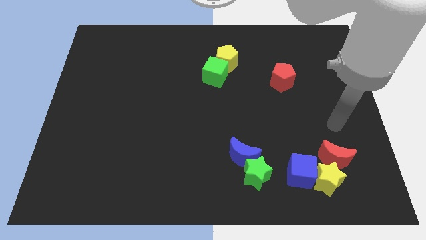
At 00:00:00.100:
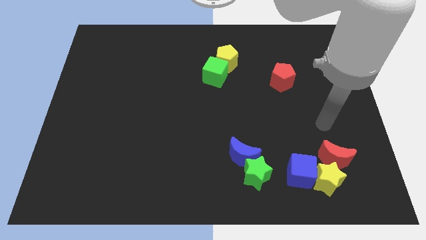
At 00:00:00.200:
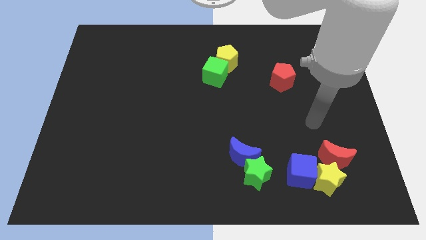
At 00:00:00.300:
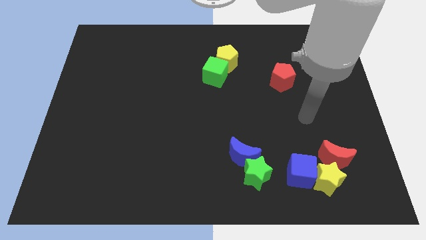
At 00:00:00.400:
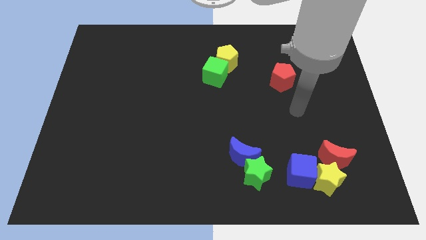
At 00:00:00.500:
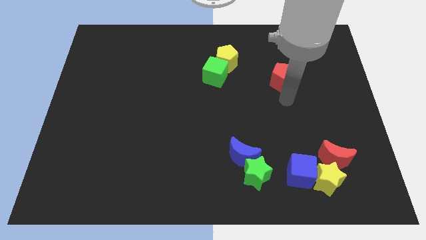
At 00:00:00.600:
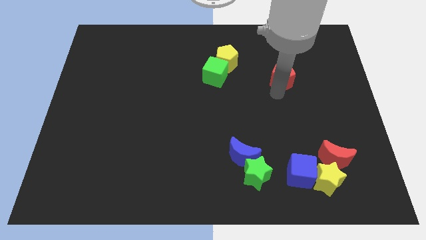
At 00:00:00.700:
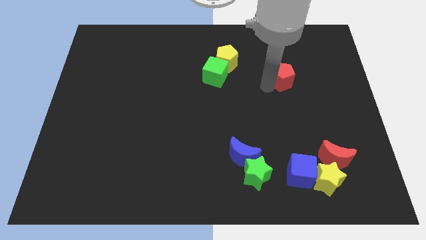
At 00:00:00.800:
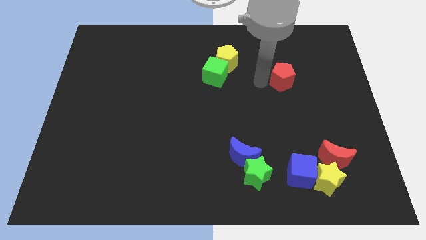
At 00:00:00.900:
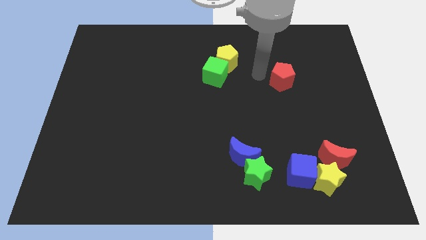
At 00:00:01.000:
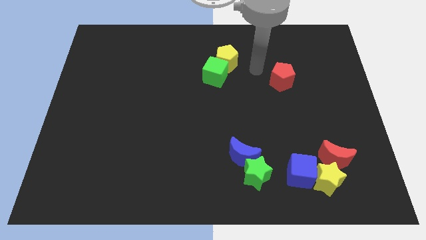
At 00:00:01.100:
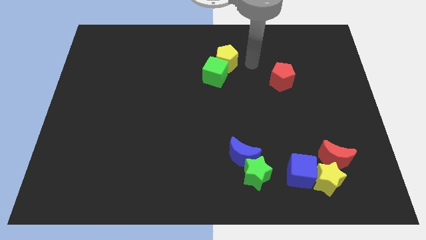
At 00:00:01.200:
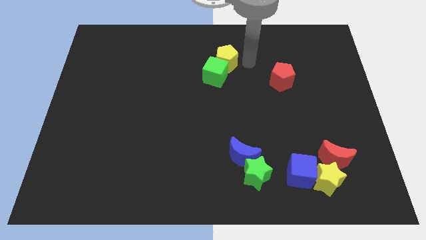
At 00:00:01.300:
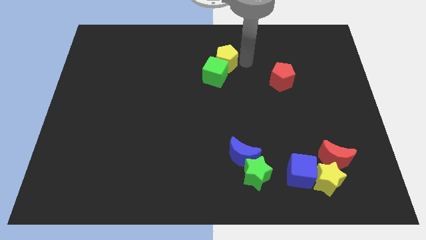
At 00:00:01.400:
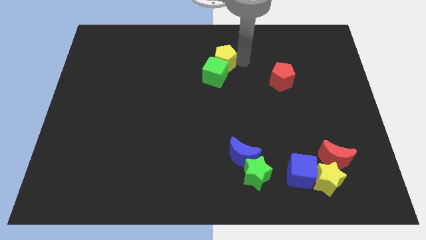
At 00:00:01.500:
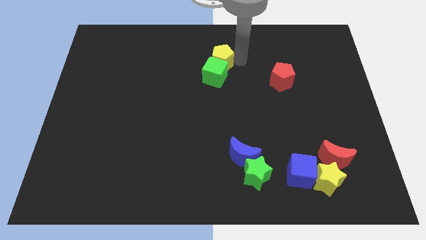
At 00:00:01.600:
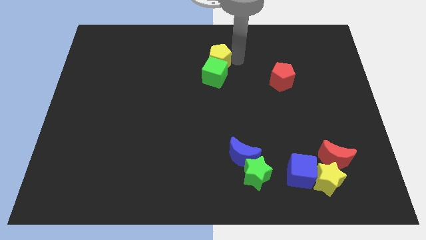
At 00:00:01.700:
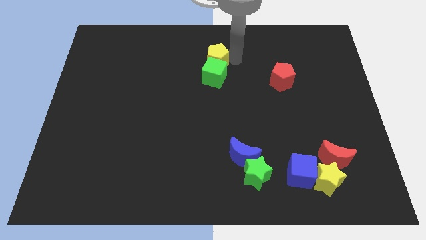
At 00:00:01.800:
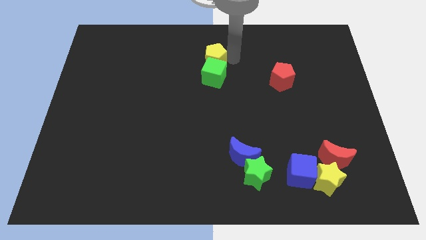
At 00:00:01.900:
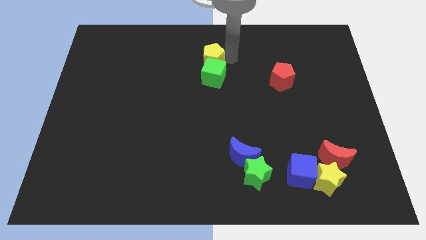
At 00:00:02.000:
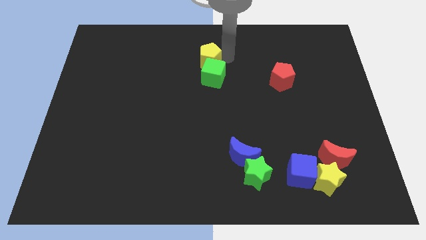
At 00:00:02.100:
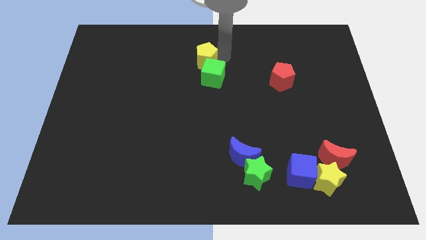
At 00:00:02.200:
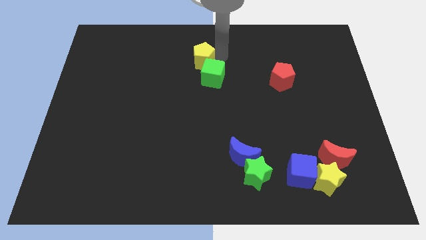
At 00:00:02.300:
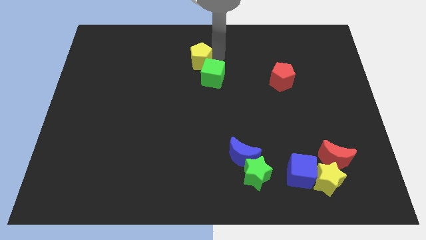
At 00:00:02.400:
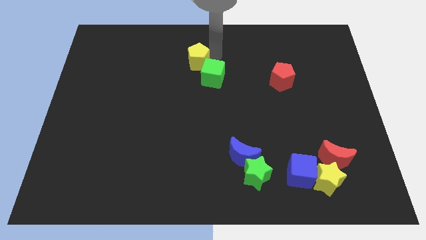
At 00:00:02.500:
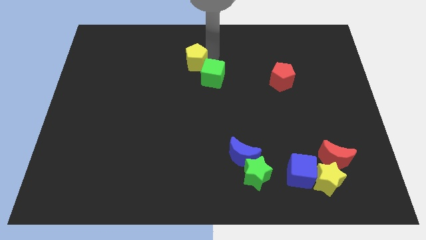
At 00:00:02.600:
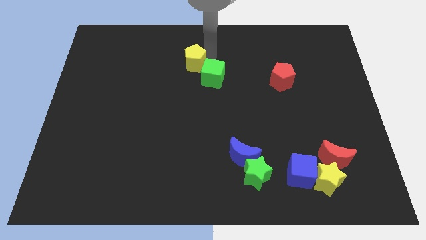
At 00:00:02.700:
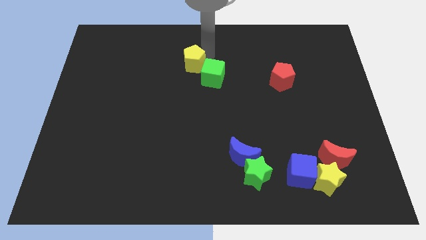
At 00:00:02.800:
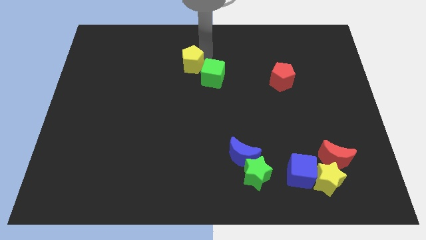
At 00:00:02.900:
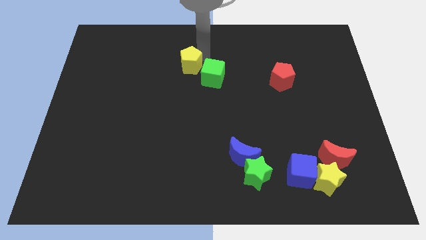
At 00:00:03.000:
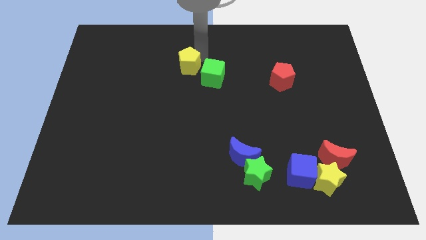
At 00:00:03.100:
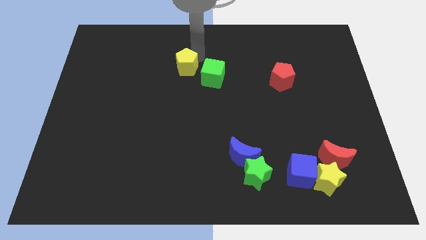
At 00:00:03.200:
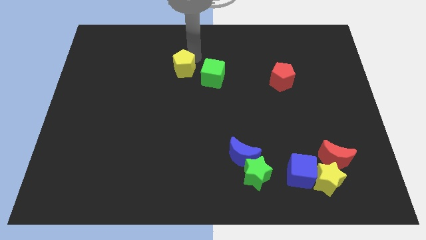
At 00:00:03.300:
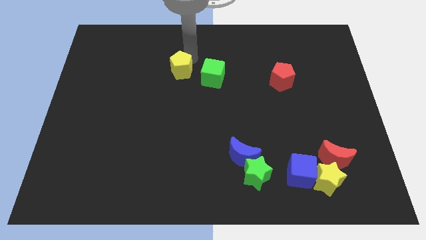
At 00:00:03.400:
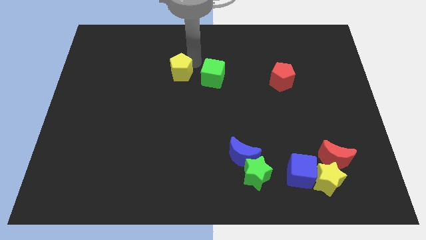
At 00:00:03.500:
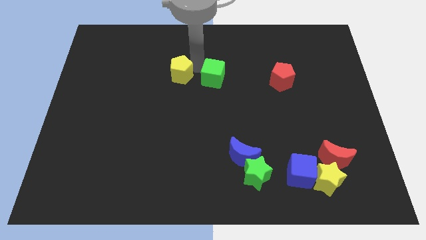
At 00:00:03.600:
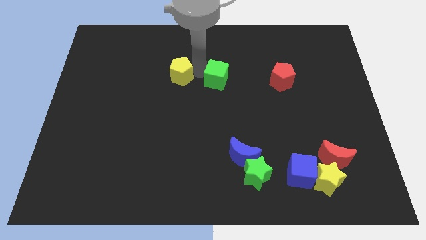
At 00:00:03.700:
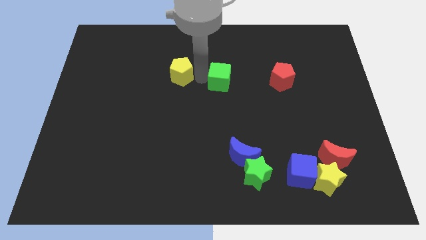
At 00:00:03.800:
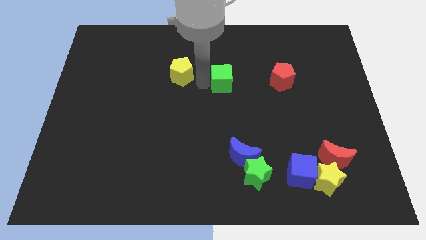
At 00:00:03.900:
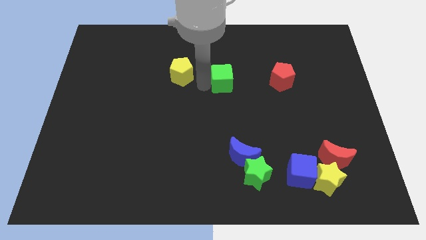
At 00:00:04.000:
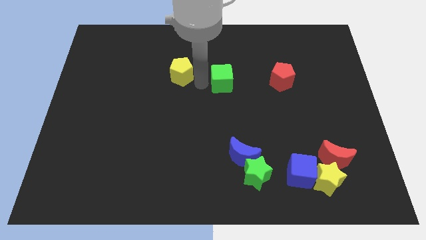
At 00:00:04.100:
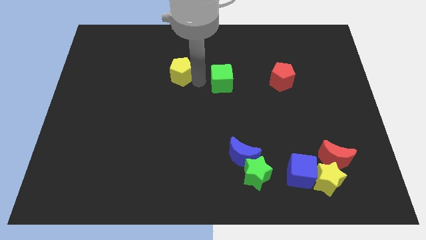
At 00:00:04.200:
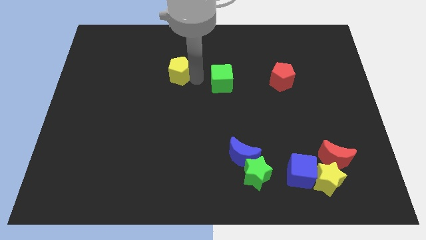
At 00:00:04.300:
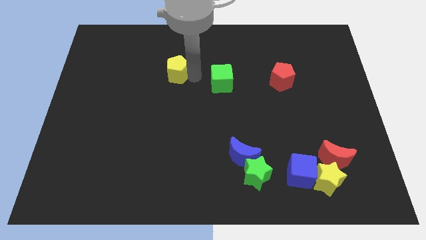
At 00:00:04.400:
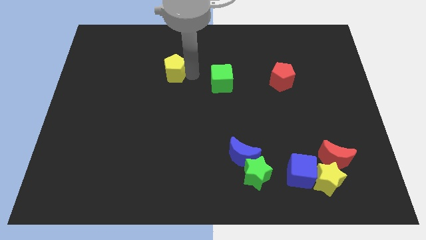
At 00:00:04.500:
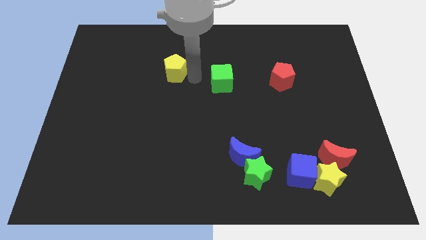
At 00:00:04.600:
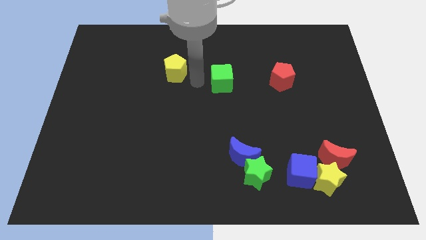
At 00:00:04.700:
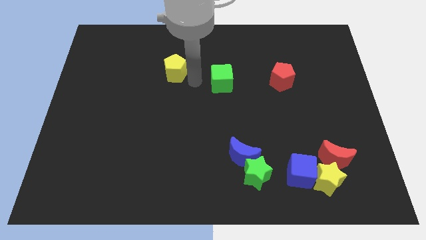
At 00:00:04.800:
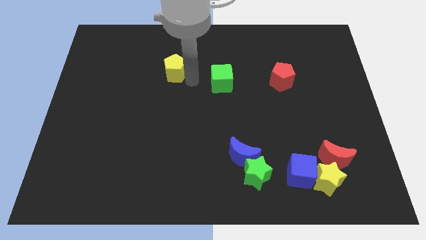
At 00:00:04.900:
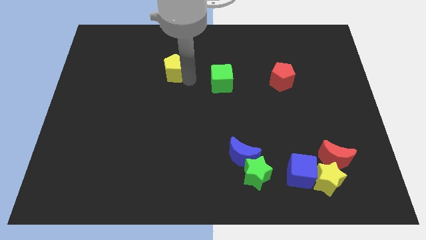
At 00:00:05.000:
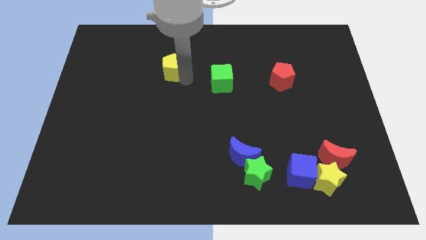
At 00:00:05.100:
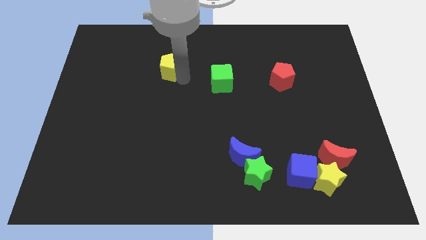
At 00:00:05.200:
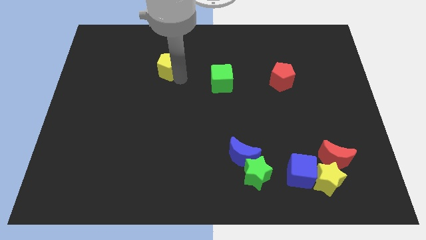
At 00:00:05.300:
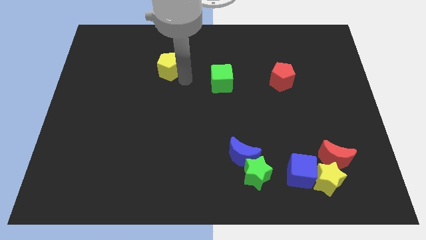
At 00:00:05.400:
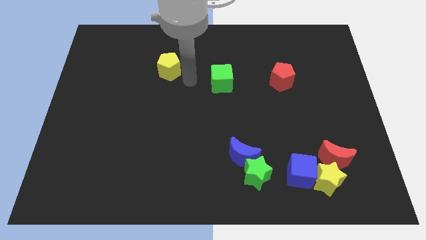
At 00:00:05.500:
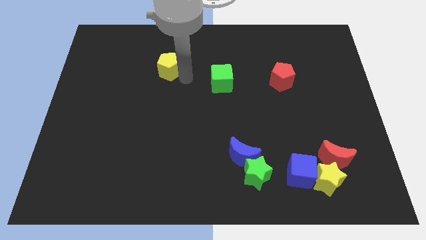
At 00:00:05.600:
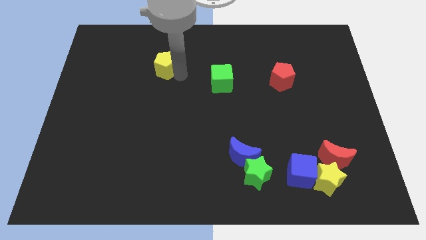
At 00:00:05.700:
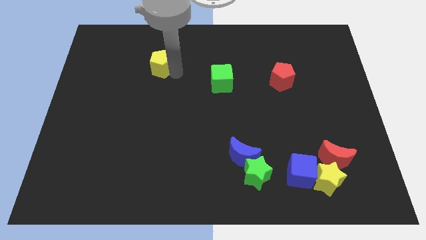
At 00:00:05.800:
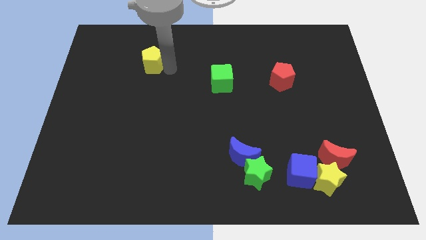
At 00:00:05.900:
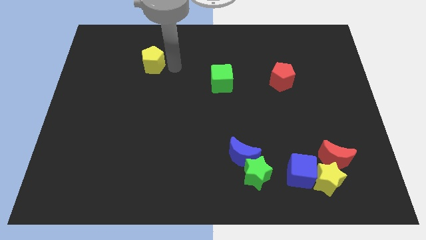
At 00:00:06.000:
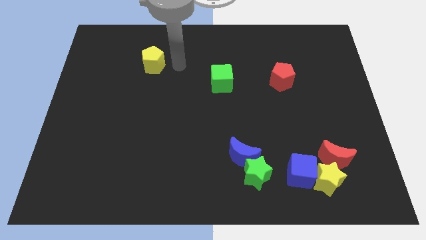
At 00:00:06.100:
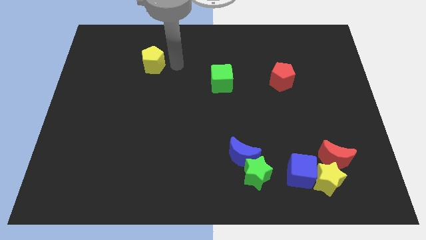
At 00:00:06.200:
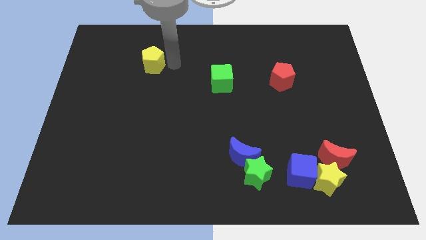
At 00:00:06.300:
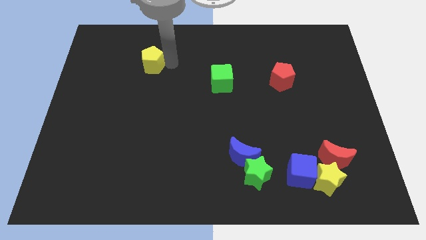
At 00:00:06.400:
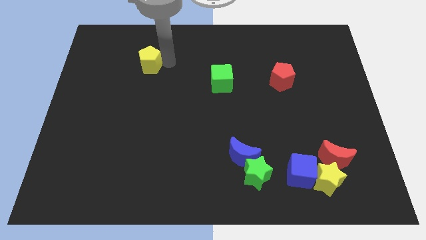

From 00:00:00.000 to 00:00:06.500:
move the yellow pentagon to the left

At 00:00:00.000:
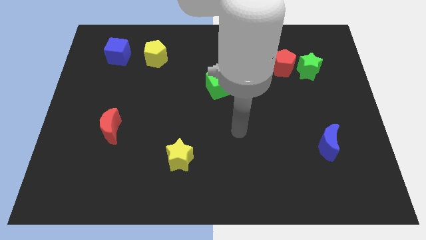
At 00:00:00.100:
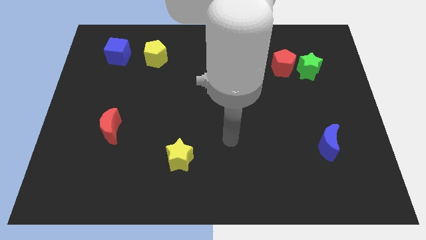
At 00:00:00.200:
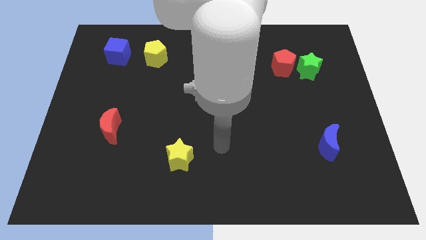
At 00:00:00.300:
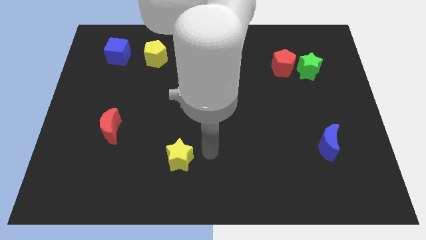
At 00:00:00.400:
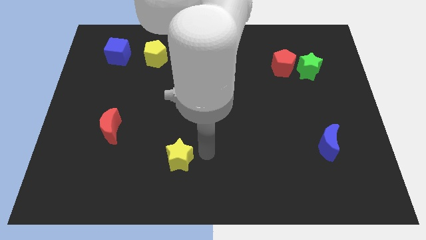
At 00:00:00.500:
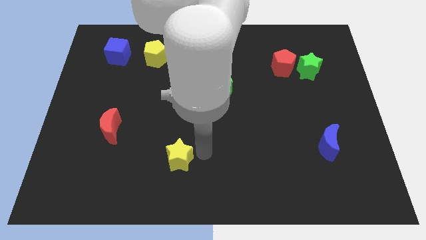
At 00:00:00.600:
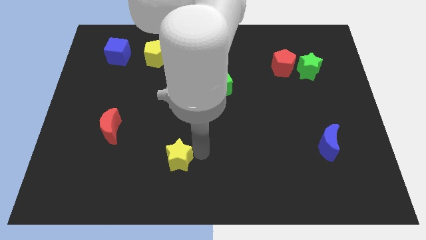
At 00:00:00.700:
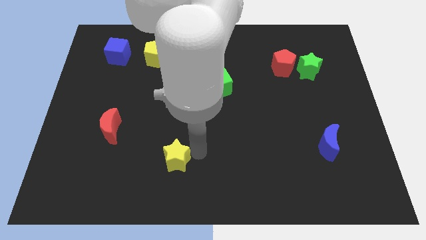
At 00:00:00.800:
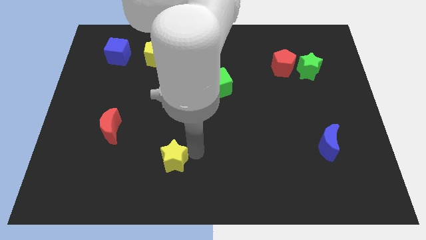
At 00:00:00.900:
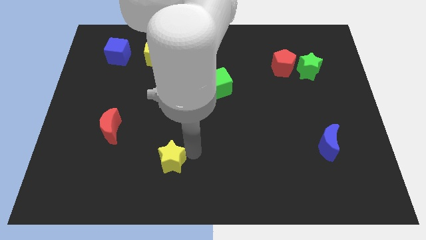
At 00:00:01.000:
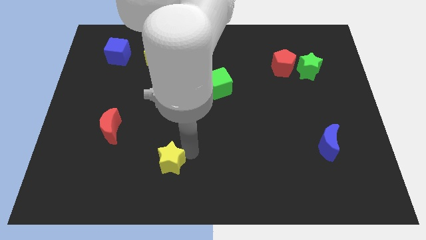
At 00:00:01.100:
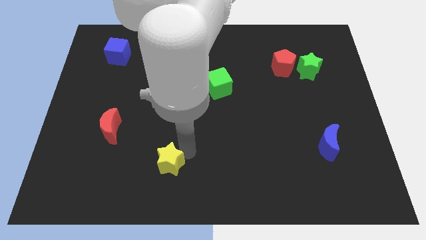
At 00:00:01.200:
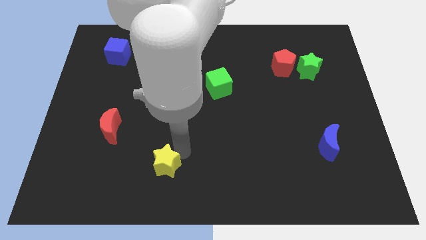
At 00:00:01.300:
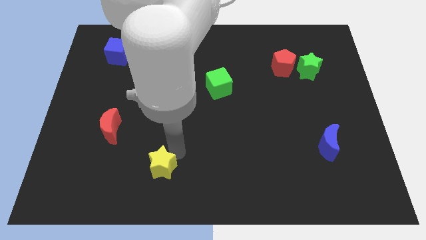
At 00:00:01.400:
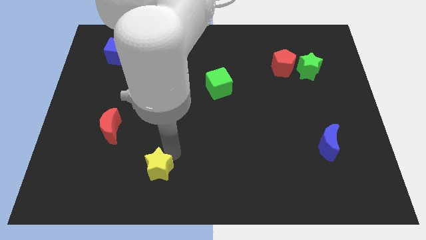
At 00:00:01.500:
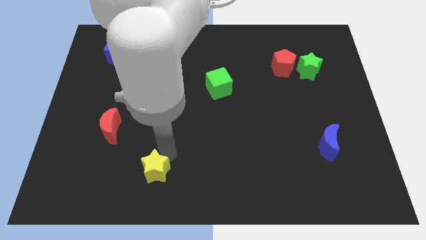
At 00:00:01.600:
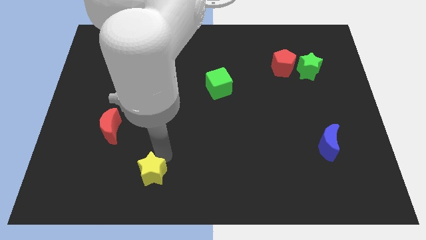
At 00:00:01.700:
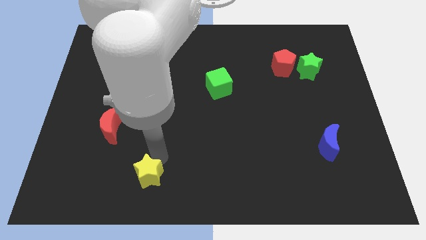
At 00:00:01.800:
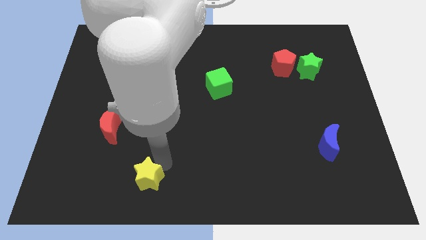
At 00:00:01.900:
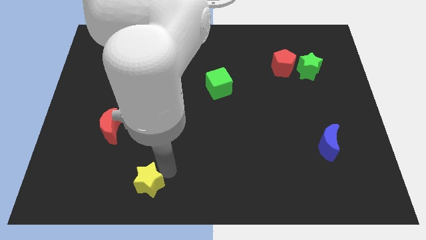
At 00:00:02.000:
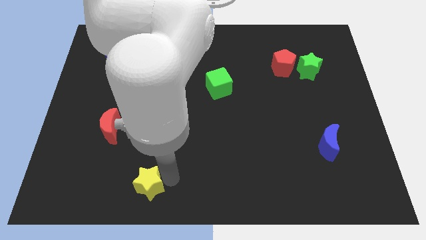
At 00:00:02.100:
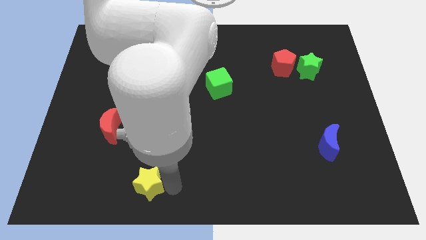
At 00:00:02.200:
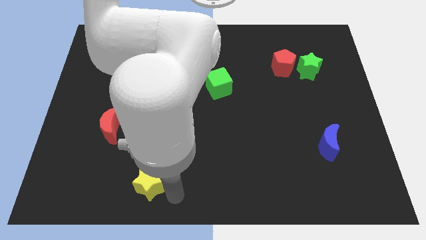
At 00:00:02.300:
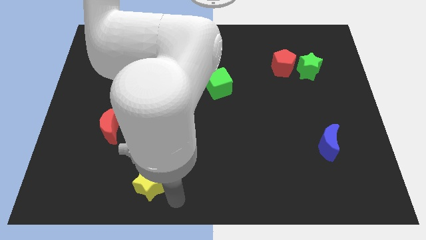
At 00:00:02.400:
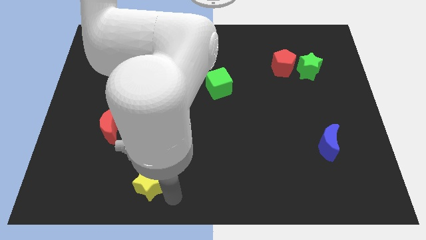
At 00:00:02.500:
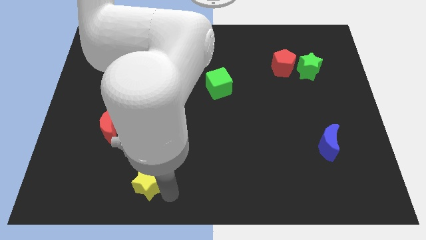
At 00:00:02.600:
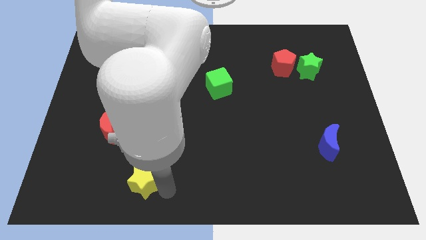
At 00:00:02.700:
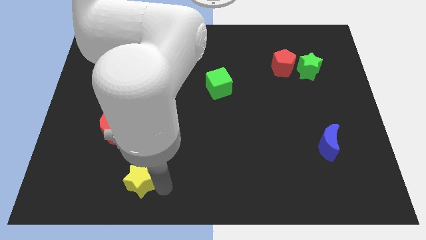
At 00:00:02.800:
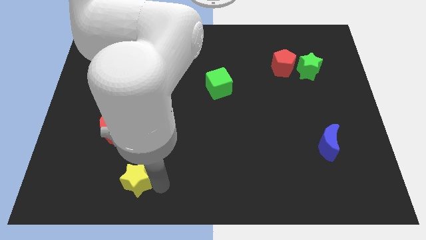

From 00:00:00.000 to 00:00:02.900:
push the yellow star a little to the left
